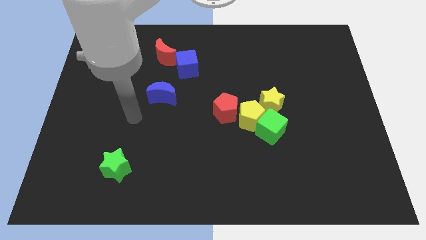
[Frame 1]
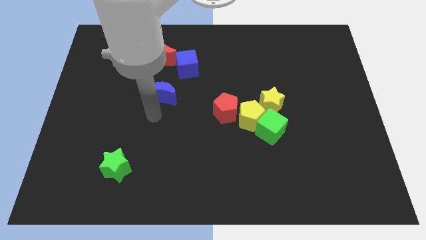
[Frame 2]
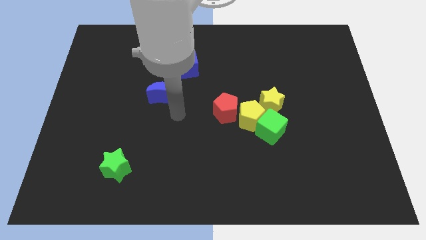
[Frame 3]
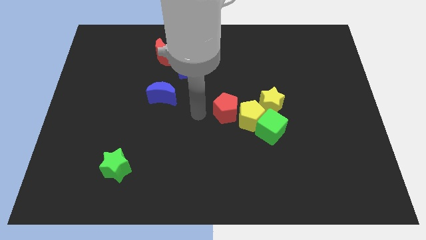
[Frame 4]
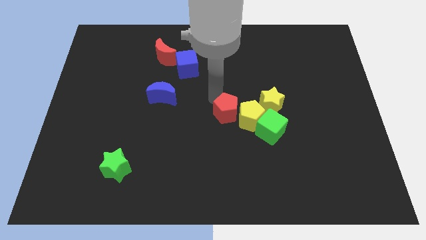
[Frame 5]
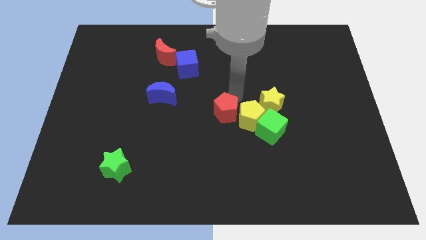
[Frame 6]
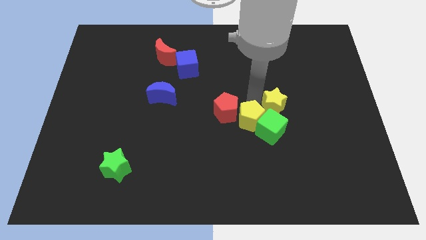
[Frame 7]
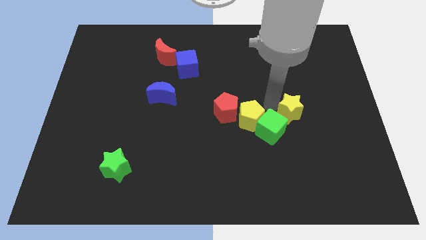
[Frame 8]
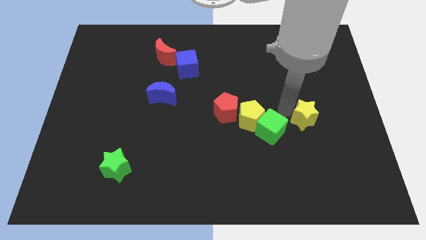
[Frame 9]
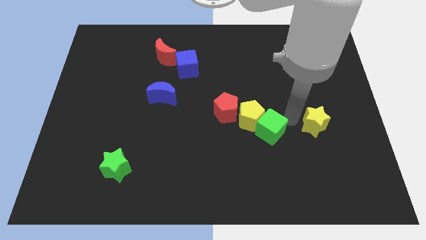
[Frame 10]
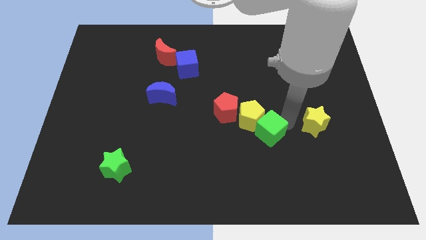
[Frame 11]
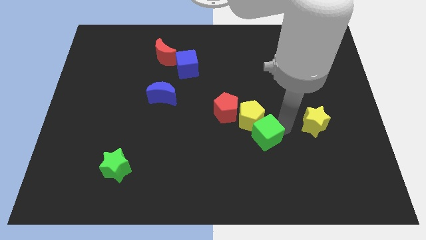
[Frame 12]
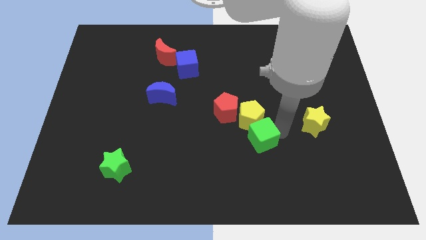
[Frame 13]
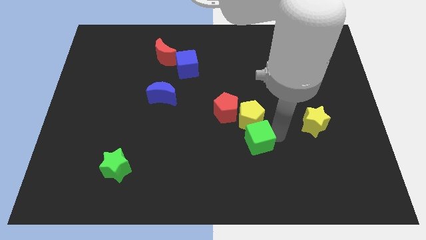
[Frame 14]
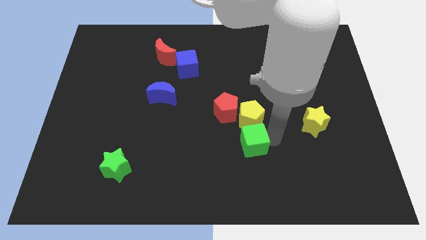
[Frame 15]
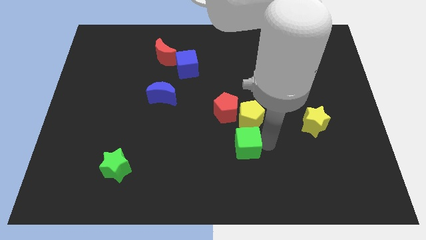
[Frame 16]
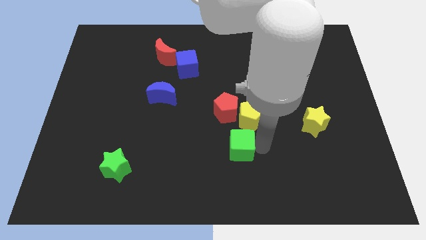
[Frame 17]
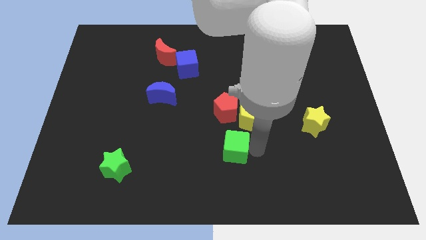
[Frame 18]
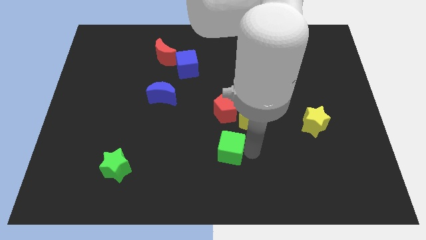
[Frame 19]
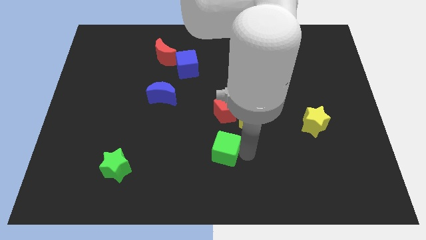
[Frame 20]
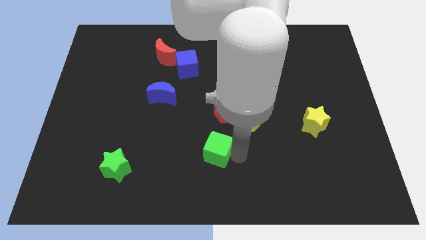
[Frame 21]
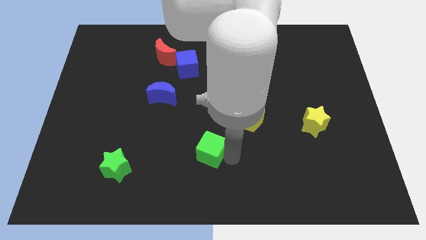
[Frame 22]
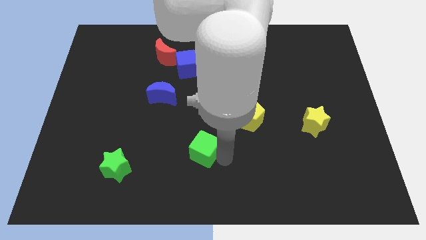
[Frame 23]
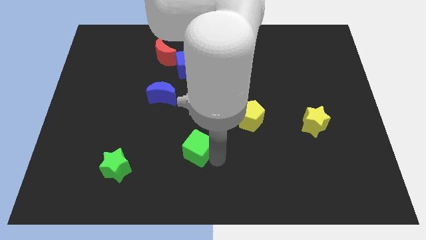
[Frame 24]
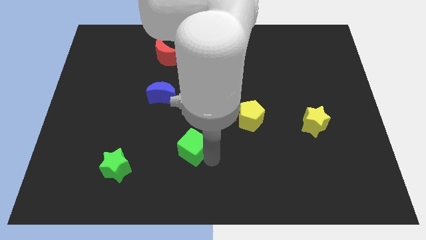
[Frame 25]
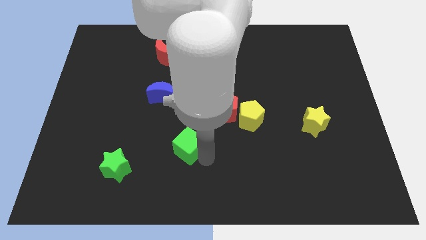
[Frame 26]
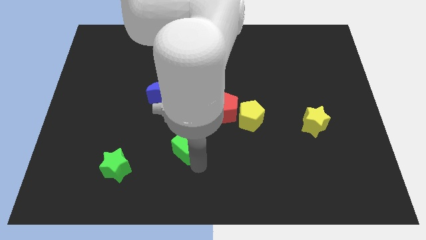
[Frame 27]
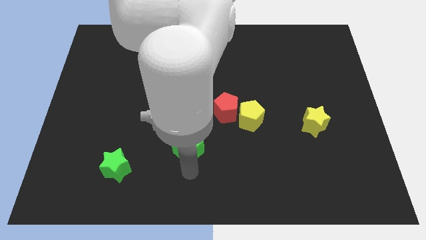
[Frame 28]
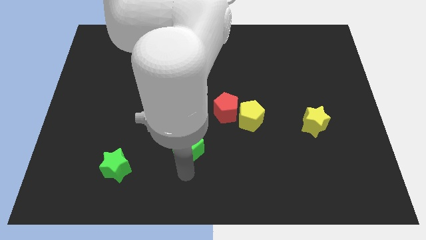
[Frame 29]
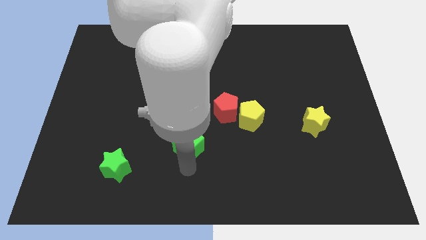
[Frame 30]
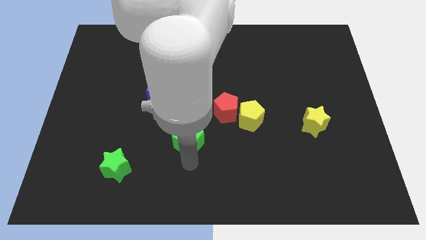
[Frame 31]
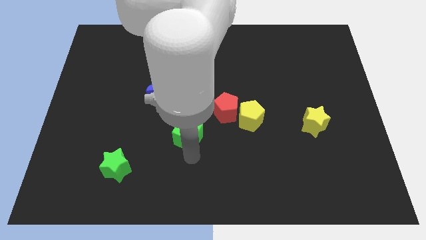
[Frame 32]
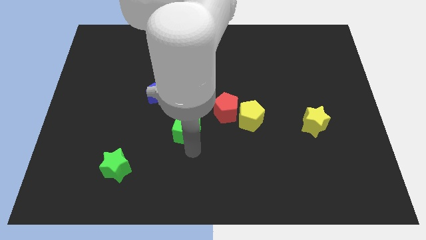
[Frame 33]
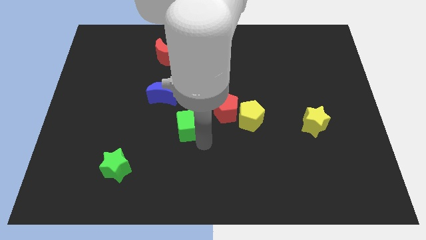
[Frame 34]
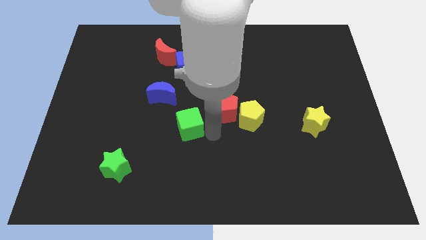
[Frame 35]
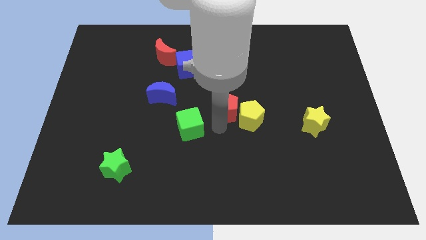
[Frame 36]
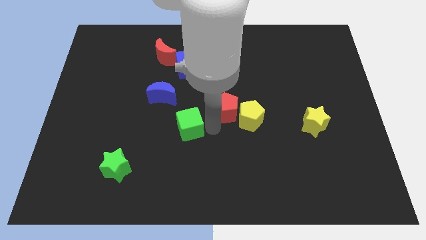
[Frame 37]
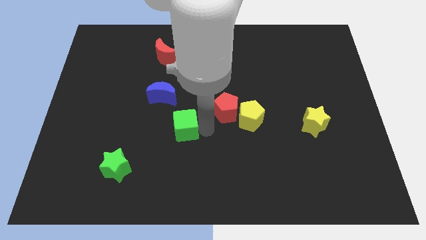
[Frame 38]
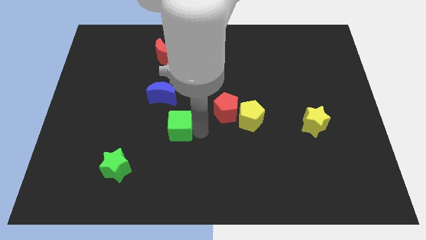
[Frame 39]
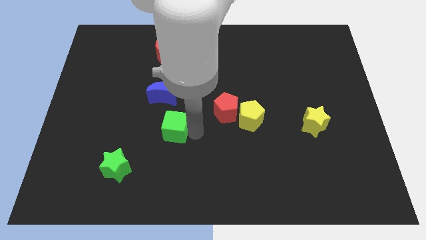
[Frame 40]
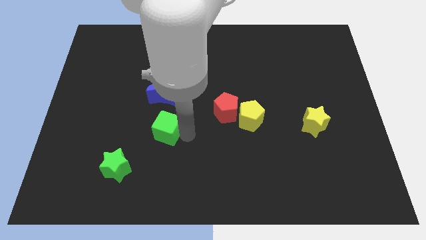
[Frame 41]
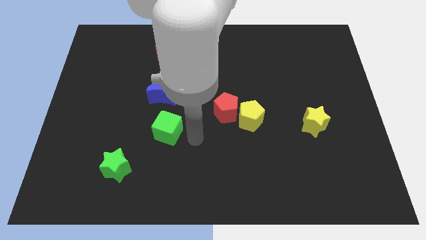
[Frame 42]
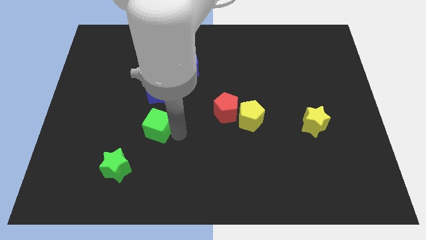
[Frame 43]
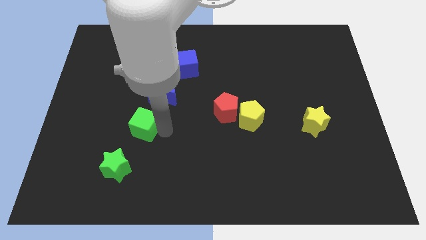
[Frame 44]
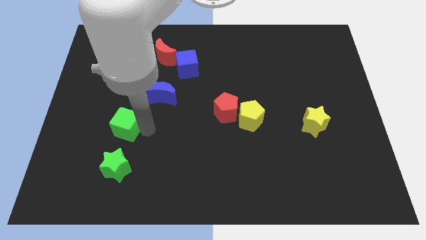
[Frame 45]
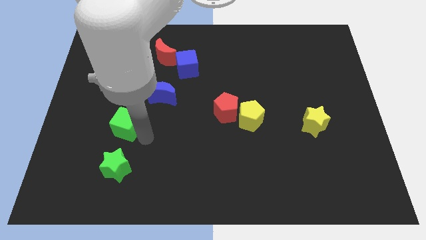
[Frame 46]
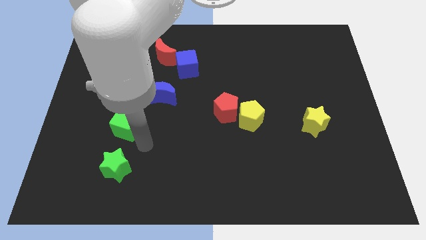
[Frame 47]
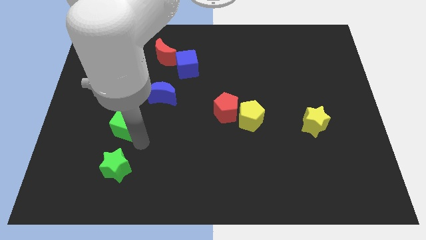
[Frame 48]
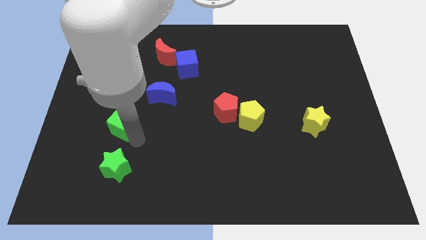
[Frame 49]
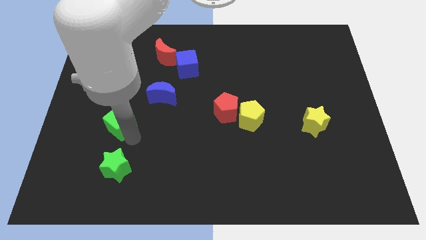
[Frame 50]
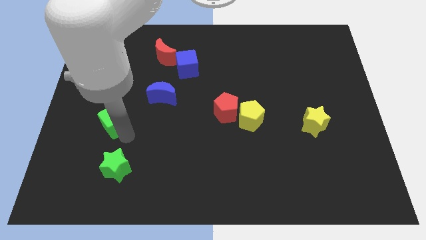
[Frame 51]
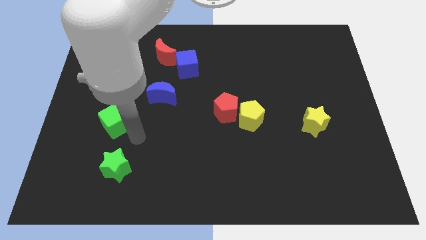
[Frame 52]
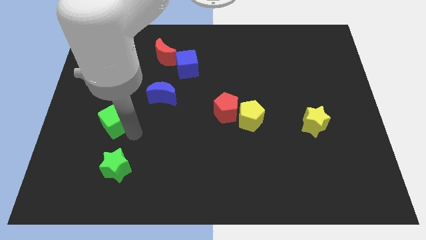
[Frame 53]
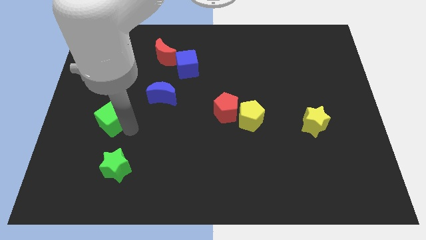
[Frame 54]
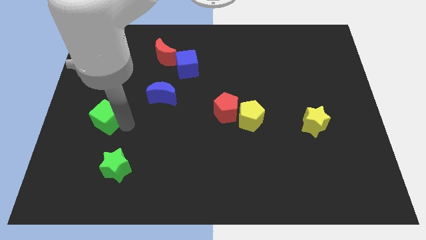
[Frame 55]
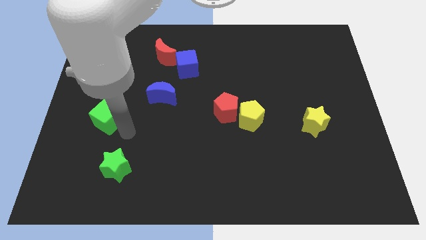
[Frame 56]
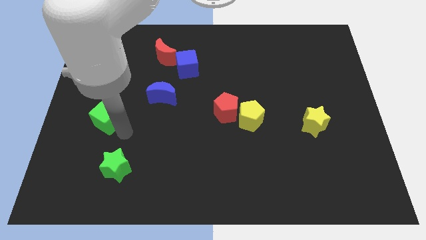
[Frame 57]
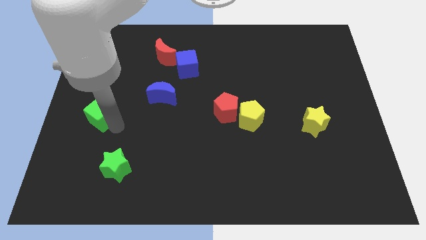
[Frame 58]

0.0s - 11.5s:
move the green cube to the left side
